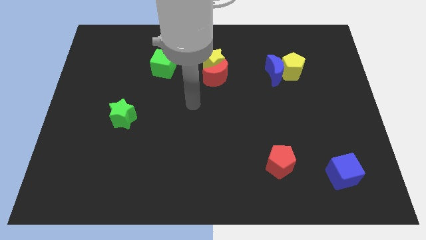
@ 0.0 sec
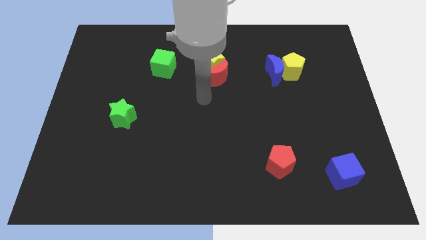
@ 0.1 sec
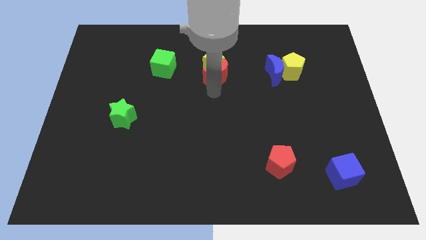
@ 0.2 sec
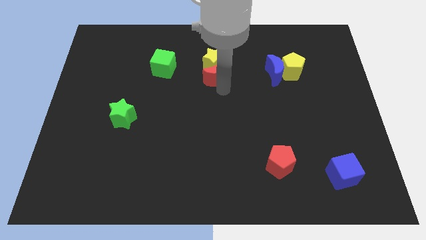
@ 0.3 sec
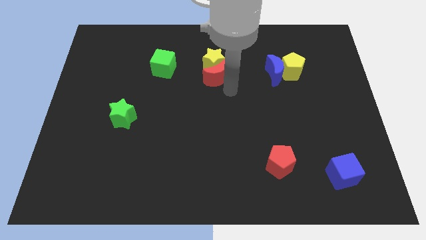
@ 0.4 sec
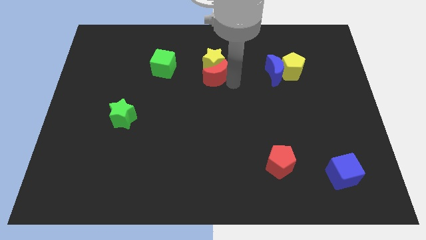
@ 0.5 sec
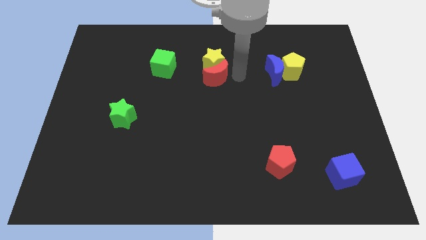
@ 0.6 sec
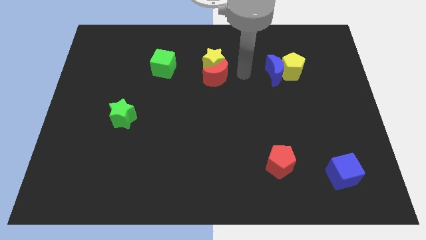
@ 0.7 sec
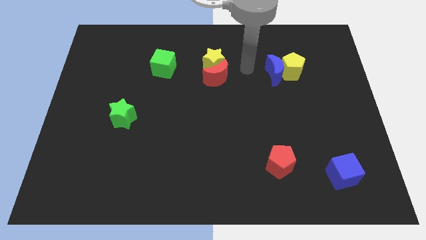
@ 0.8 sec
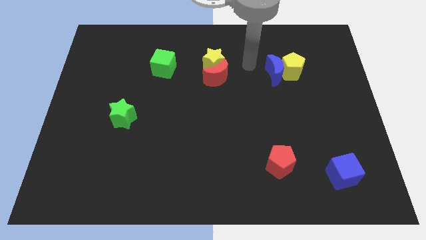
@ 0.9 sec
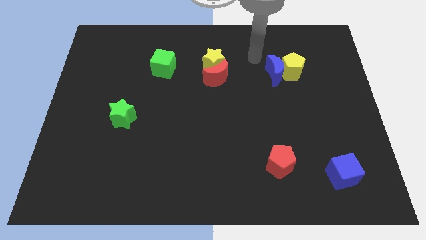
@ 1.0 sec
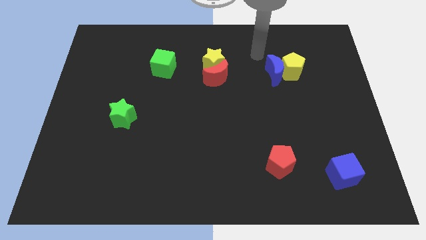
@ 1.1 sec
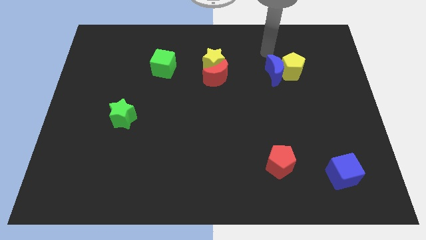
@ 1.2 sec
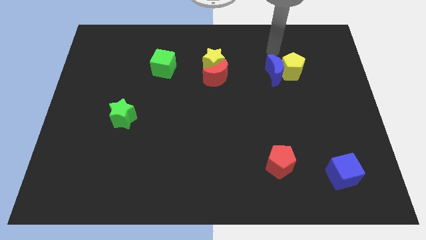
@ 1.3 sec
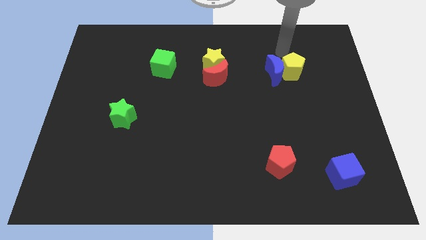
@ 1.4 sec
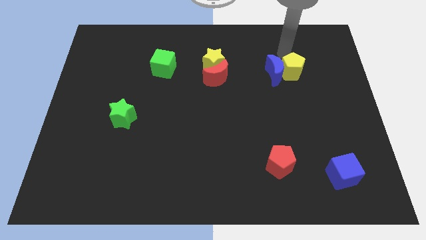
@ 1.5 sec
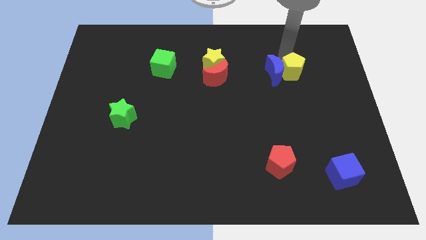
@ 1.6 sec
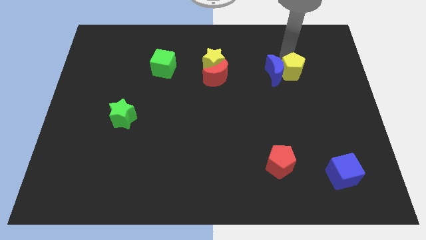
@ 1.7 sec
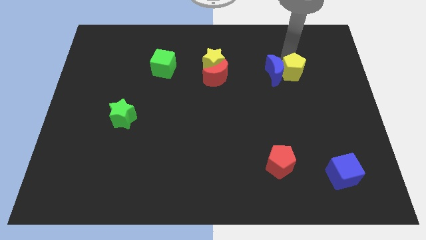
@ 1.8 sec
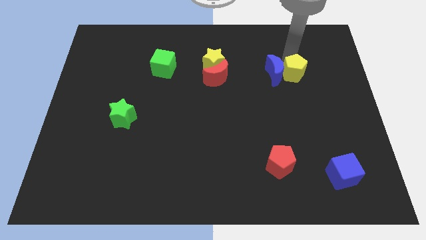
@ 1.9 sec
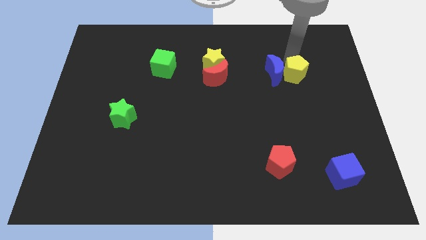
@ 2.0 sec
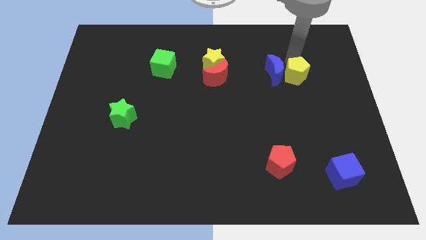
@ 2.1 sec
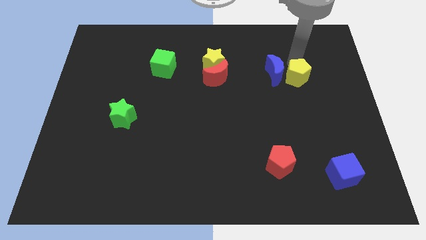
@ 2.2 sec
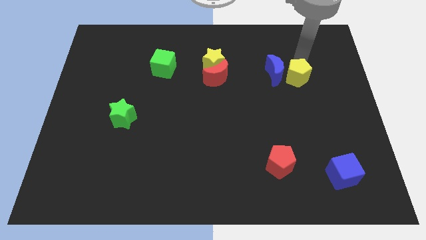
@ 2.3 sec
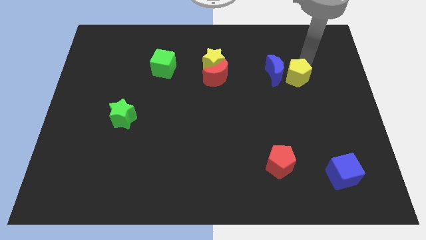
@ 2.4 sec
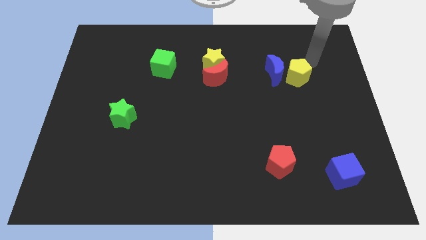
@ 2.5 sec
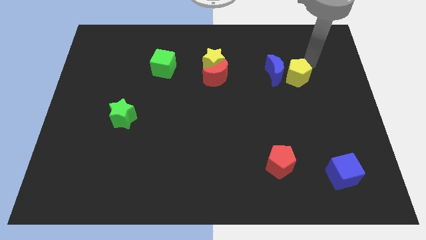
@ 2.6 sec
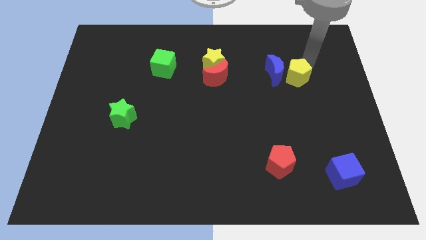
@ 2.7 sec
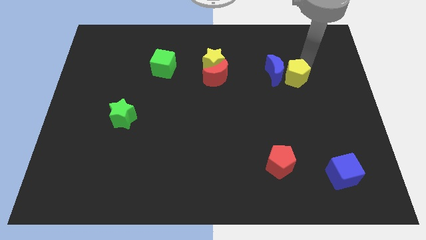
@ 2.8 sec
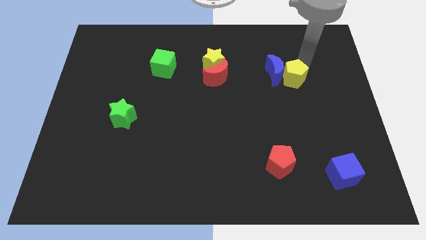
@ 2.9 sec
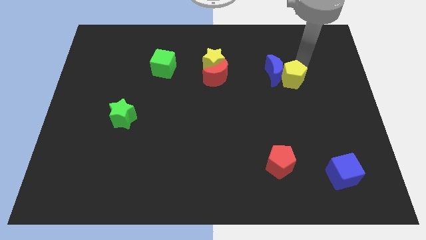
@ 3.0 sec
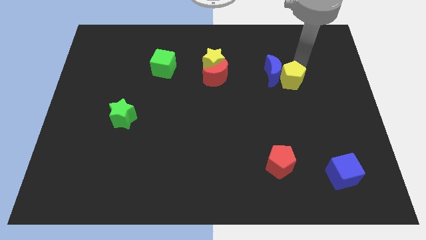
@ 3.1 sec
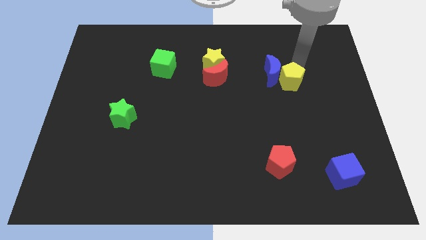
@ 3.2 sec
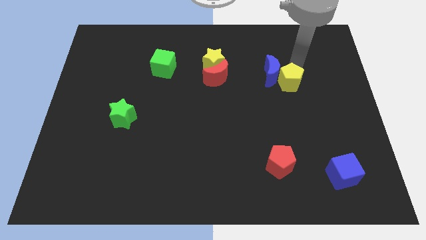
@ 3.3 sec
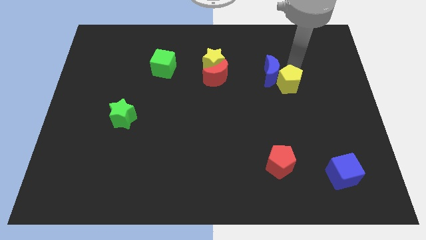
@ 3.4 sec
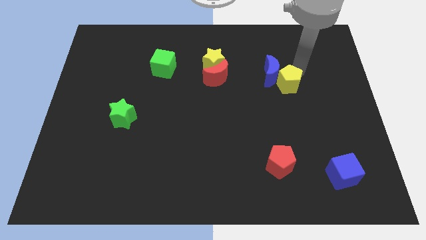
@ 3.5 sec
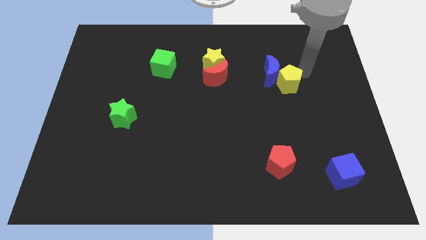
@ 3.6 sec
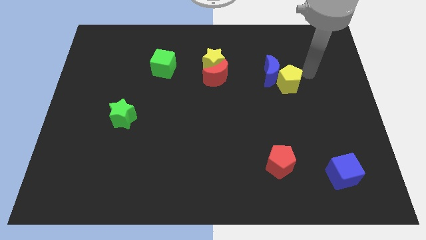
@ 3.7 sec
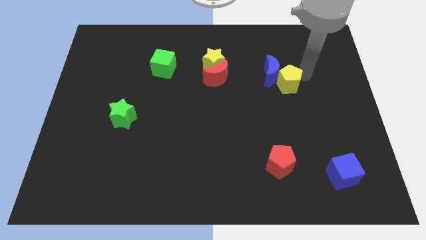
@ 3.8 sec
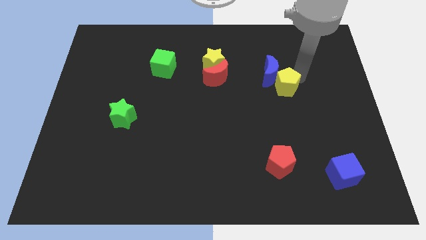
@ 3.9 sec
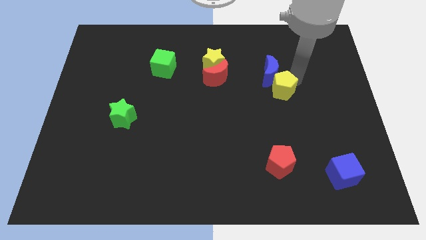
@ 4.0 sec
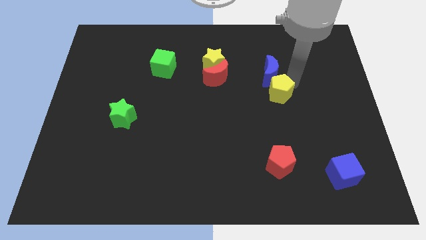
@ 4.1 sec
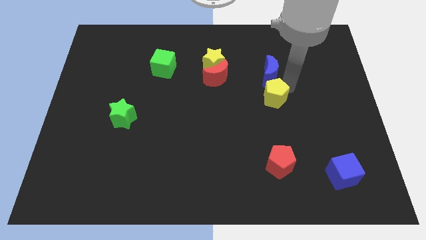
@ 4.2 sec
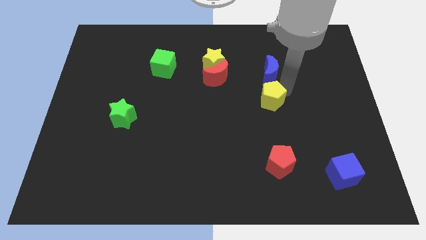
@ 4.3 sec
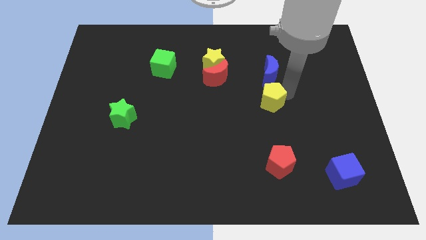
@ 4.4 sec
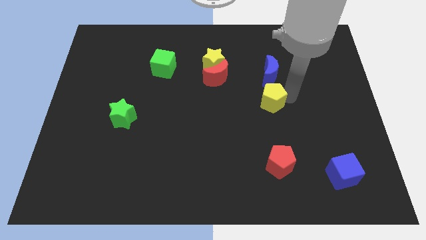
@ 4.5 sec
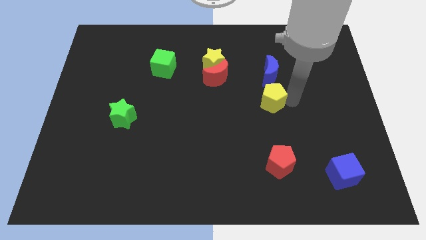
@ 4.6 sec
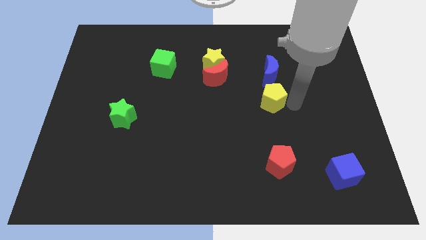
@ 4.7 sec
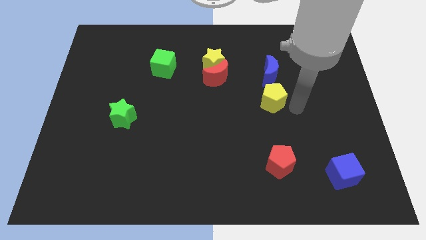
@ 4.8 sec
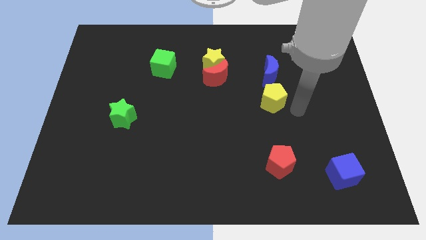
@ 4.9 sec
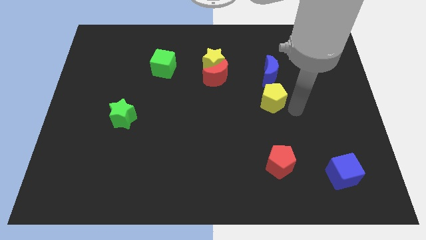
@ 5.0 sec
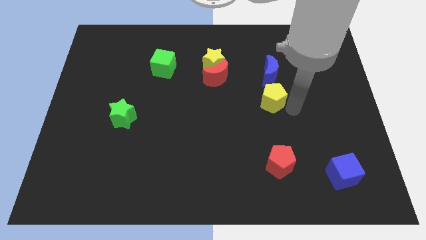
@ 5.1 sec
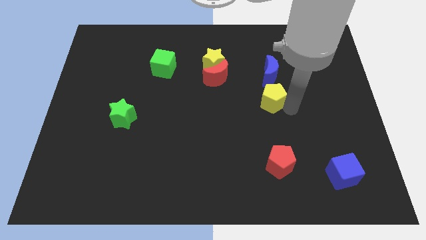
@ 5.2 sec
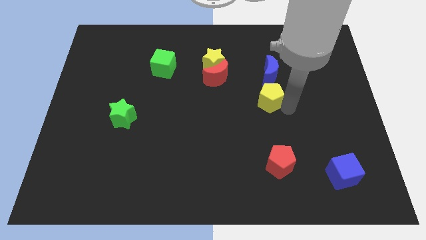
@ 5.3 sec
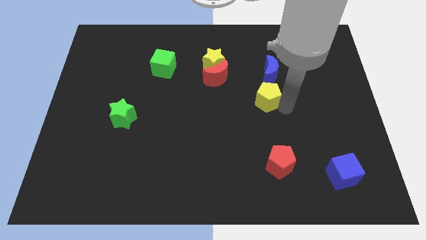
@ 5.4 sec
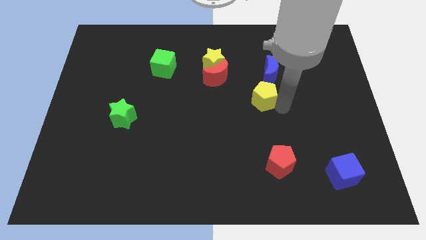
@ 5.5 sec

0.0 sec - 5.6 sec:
slide the yellow pentagon to the center of the board
